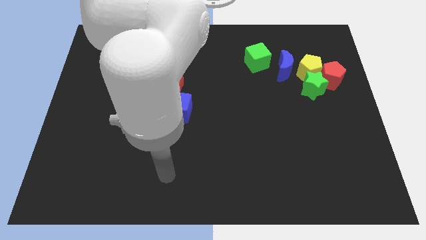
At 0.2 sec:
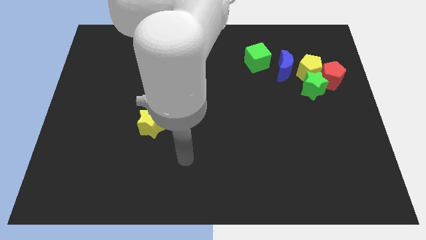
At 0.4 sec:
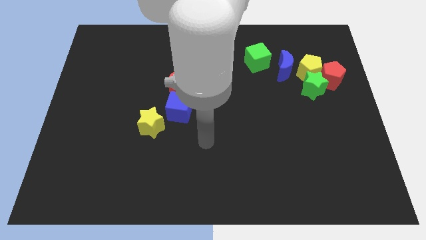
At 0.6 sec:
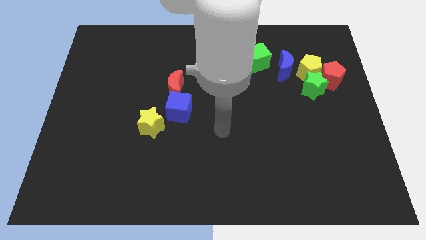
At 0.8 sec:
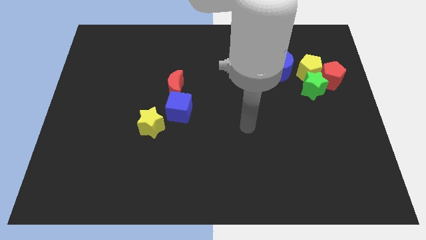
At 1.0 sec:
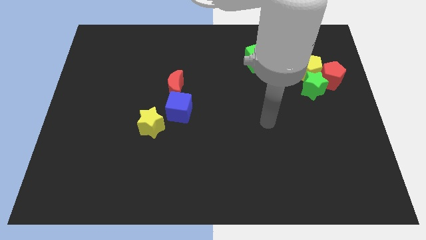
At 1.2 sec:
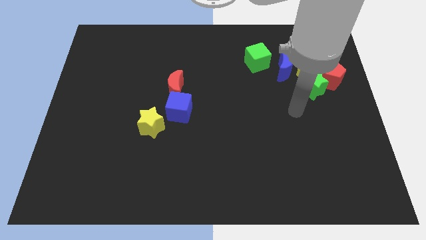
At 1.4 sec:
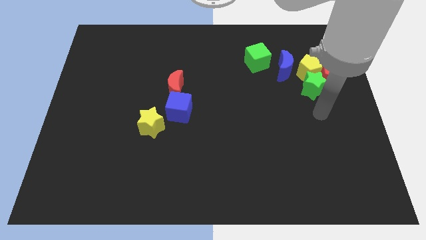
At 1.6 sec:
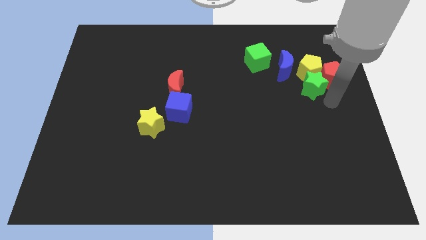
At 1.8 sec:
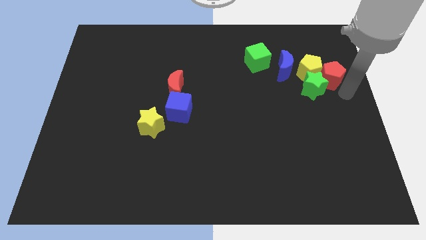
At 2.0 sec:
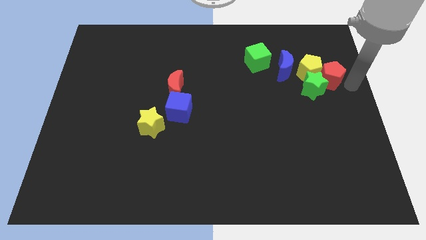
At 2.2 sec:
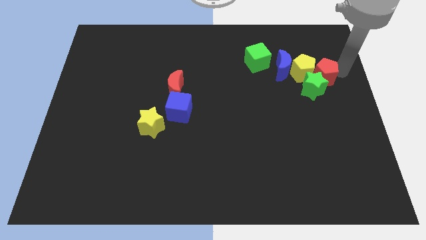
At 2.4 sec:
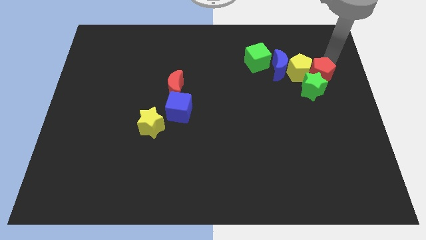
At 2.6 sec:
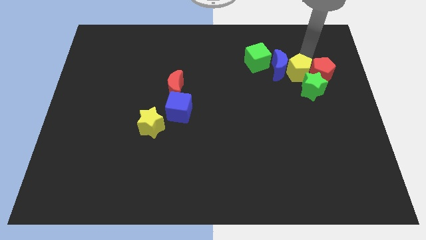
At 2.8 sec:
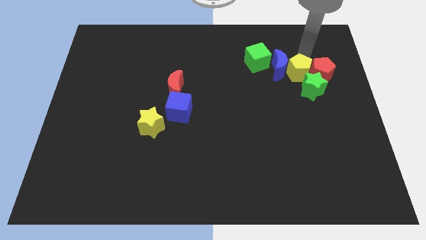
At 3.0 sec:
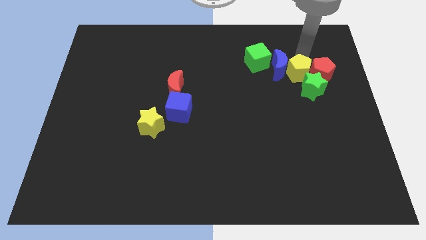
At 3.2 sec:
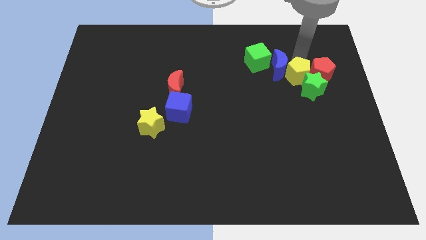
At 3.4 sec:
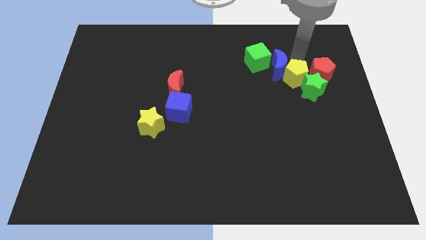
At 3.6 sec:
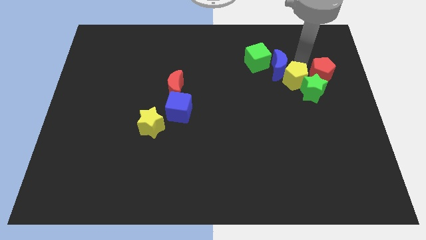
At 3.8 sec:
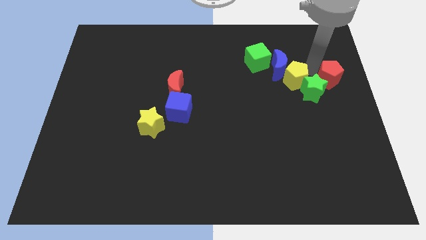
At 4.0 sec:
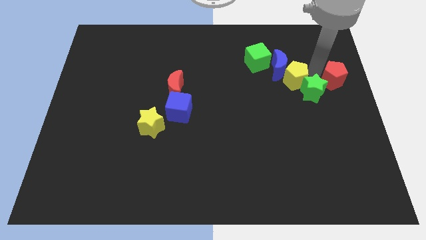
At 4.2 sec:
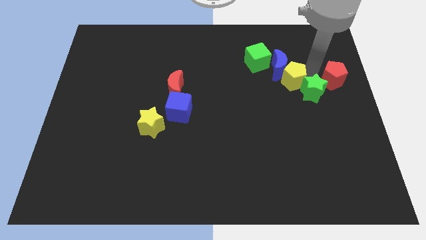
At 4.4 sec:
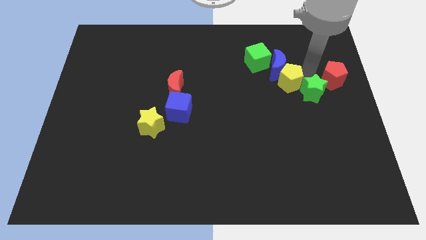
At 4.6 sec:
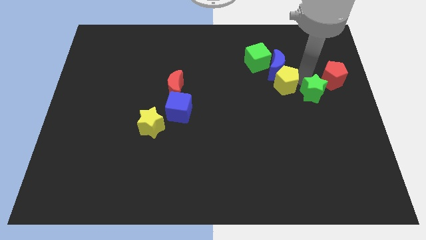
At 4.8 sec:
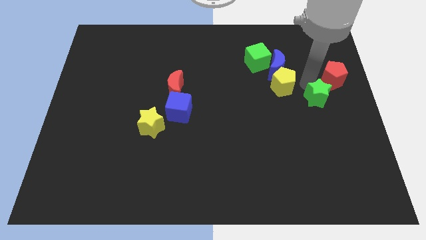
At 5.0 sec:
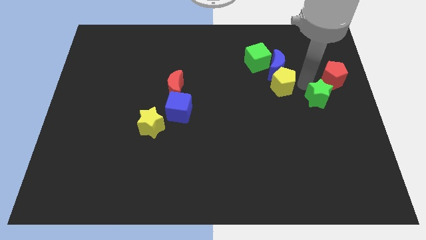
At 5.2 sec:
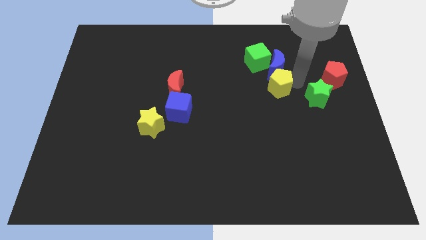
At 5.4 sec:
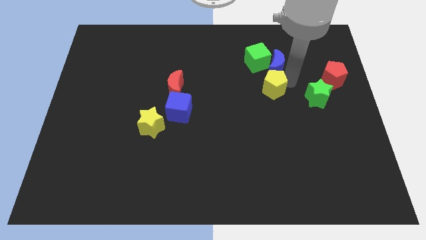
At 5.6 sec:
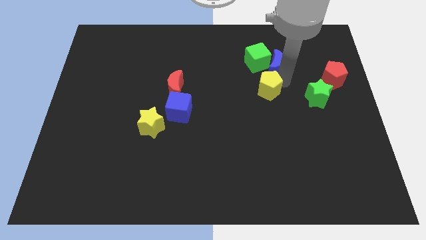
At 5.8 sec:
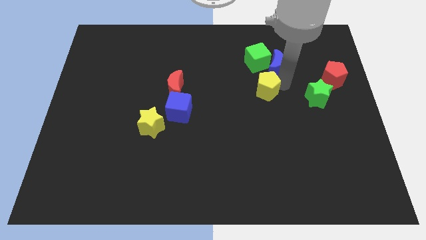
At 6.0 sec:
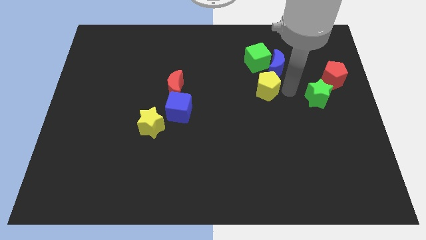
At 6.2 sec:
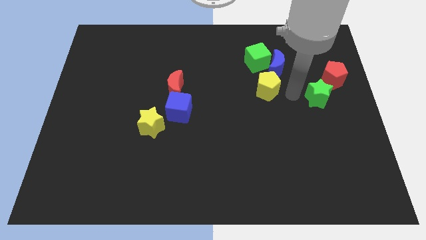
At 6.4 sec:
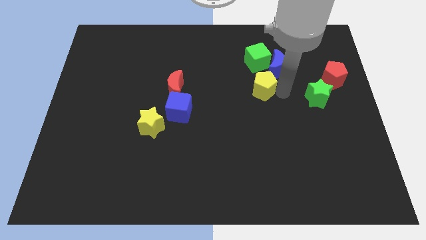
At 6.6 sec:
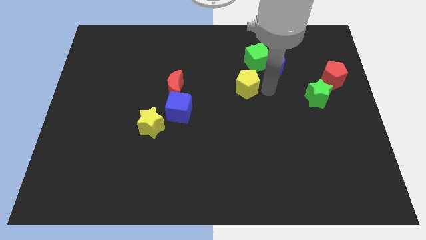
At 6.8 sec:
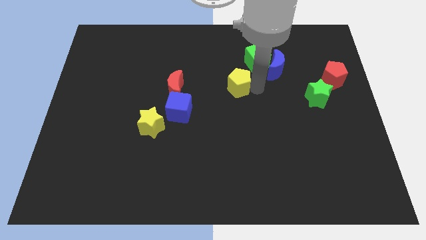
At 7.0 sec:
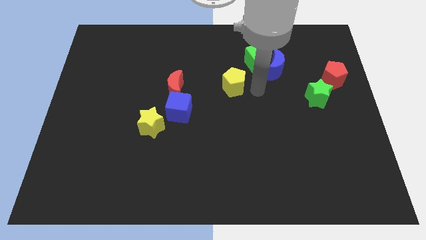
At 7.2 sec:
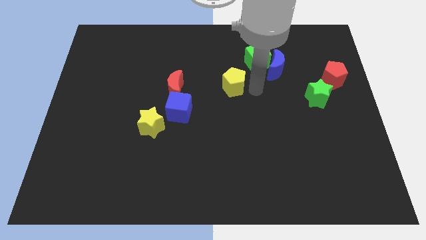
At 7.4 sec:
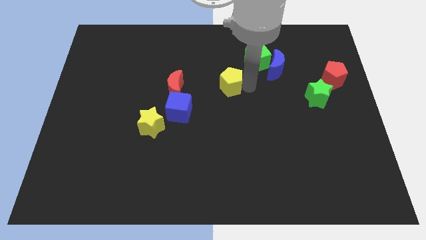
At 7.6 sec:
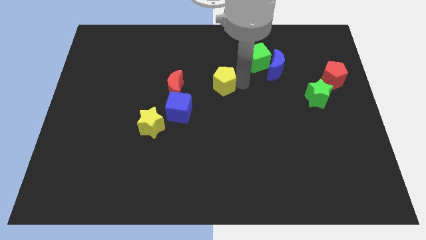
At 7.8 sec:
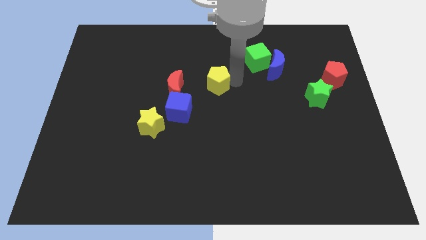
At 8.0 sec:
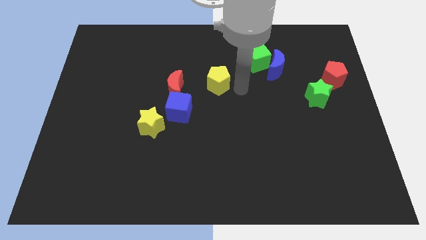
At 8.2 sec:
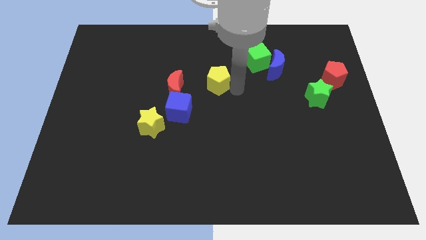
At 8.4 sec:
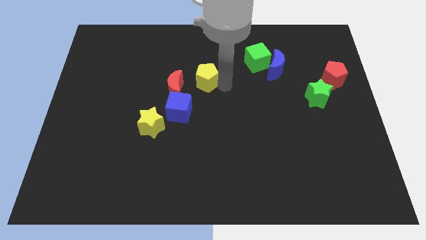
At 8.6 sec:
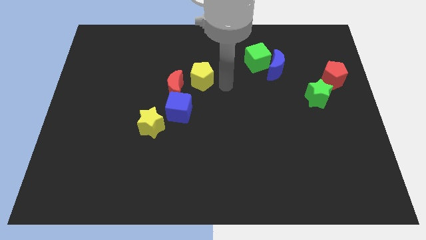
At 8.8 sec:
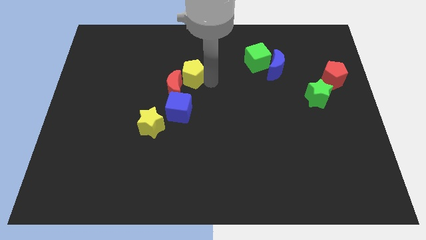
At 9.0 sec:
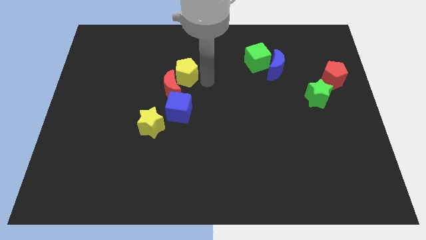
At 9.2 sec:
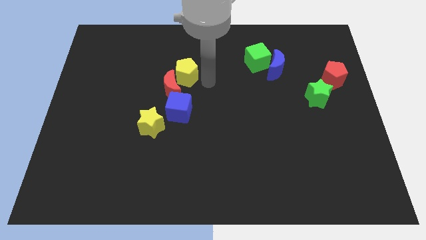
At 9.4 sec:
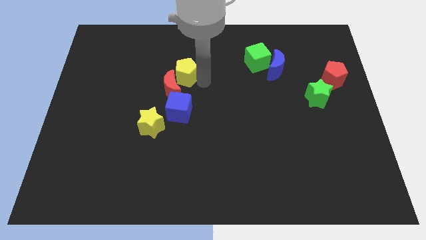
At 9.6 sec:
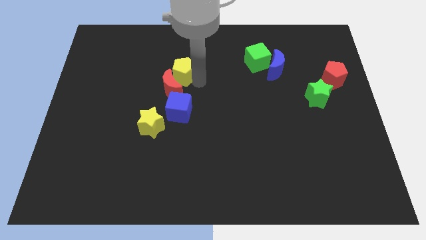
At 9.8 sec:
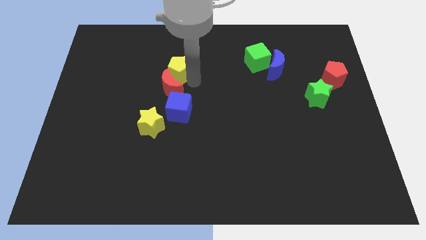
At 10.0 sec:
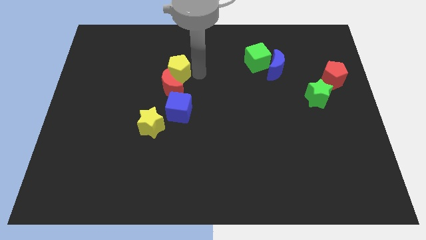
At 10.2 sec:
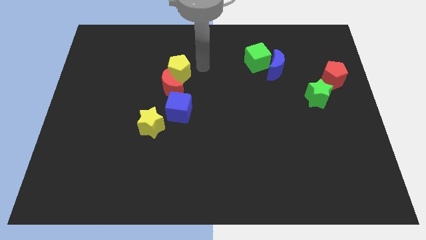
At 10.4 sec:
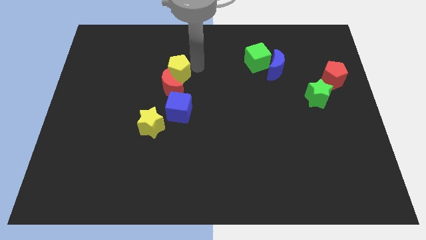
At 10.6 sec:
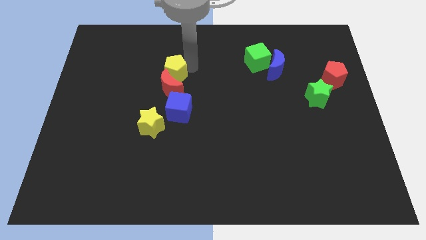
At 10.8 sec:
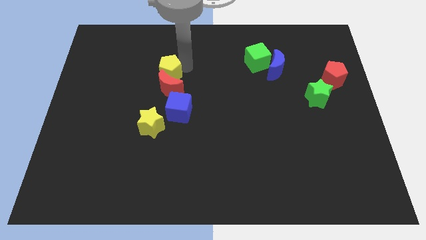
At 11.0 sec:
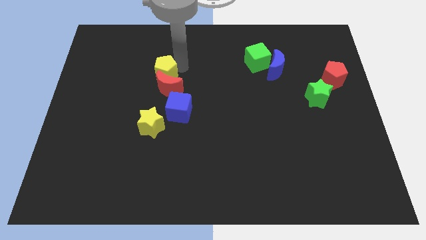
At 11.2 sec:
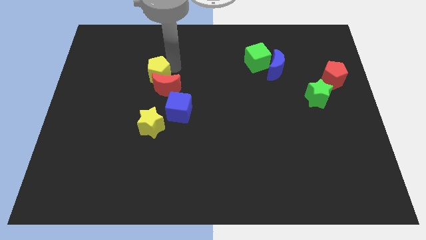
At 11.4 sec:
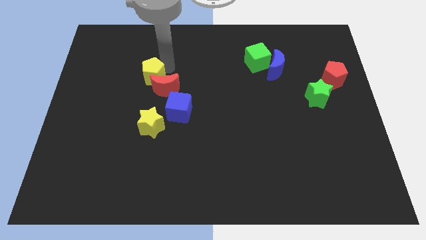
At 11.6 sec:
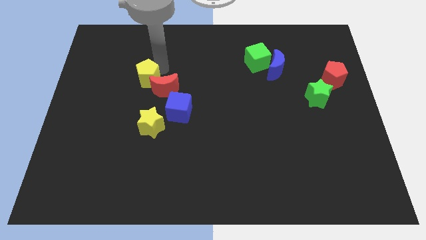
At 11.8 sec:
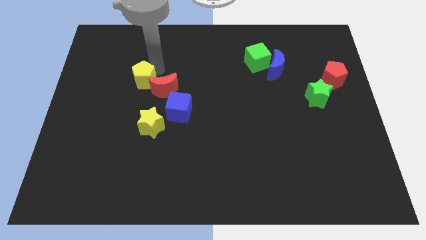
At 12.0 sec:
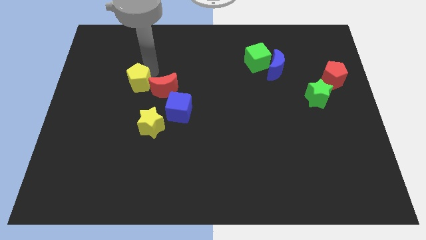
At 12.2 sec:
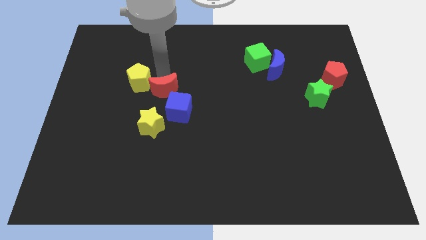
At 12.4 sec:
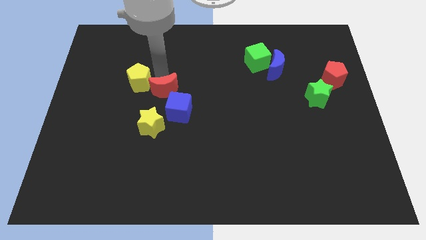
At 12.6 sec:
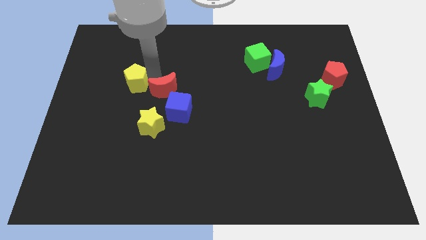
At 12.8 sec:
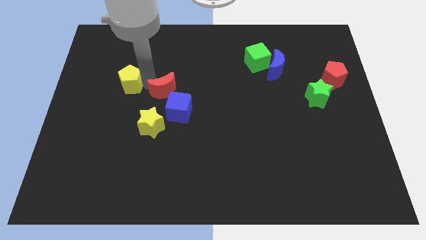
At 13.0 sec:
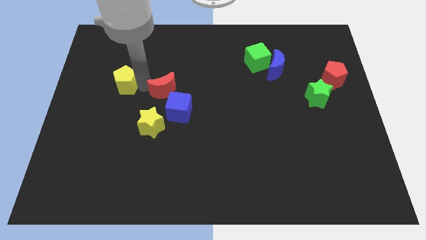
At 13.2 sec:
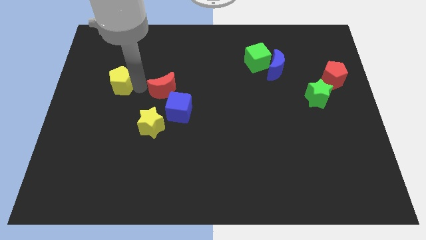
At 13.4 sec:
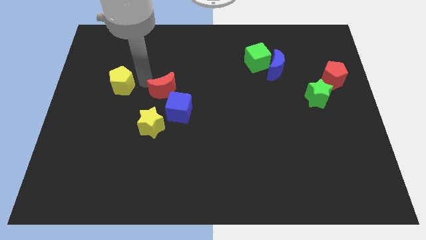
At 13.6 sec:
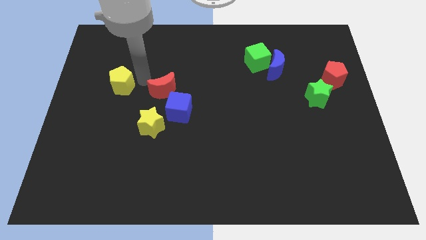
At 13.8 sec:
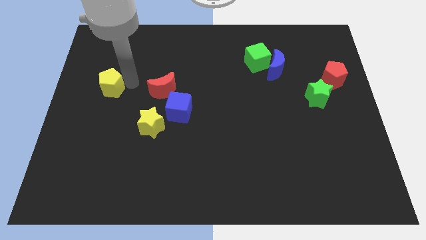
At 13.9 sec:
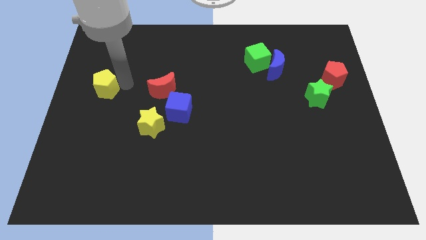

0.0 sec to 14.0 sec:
move the yellow pentagon to the left side
